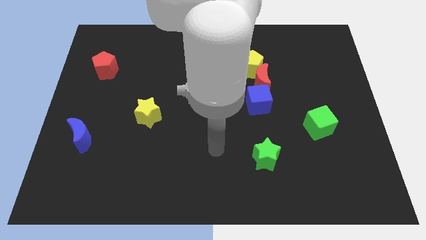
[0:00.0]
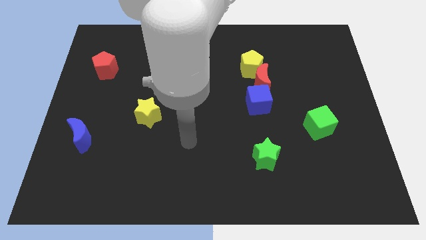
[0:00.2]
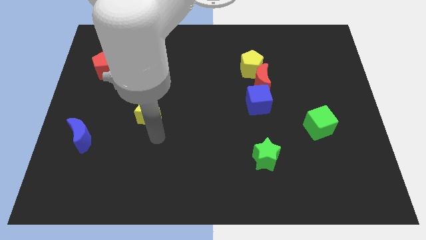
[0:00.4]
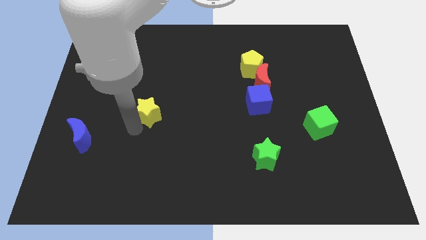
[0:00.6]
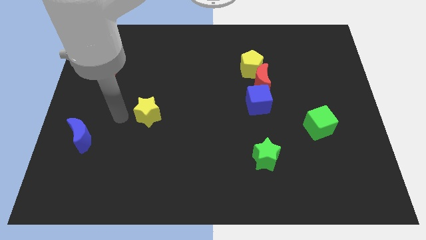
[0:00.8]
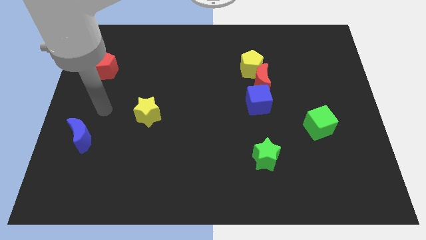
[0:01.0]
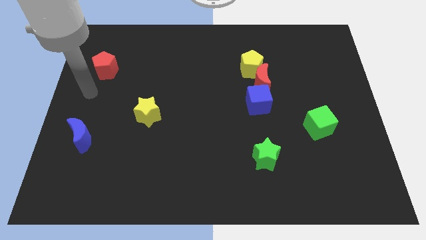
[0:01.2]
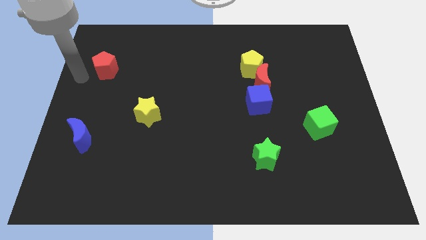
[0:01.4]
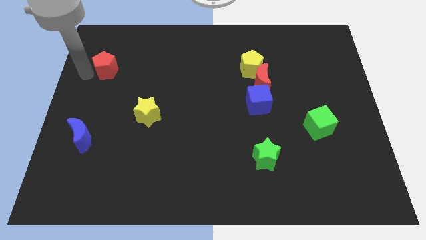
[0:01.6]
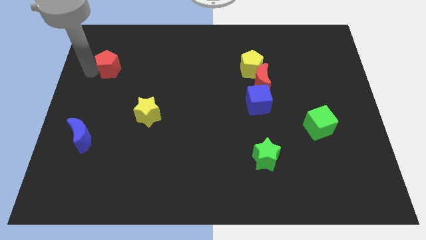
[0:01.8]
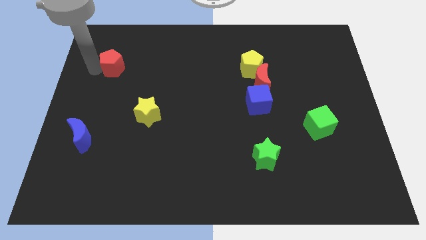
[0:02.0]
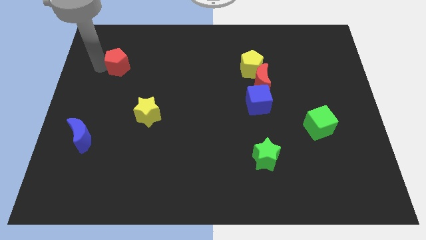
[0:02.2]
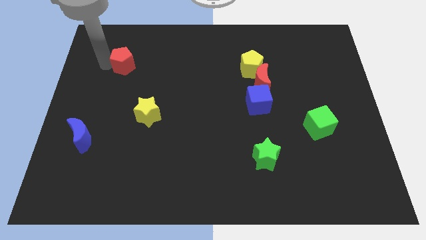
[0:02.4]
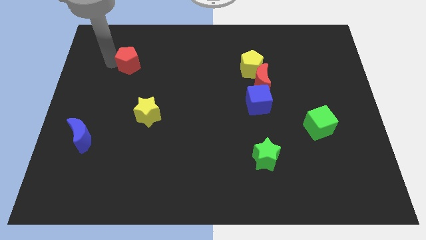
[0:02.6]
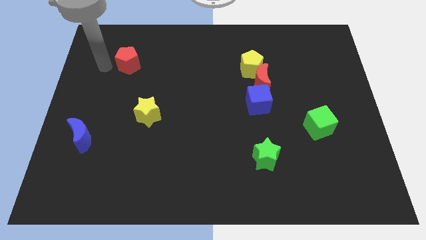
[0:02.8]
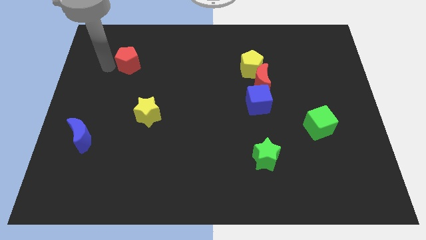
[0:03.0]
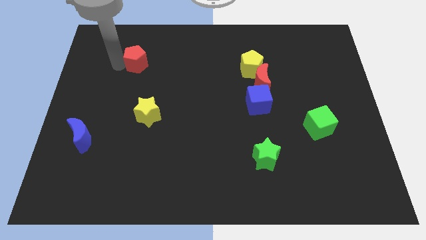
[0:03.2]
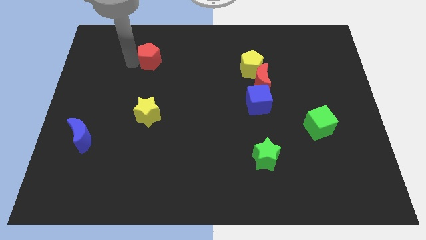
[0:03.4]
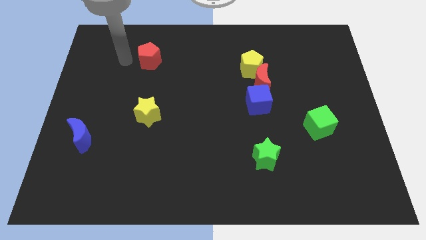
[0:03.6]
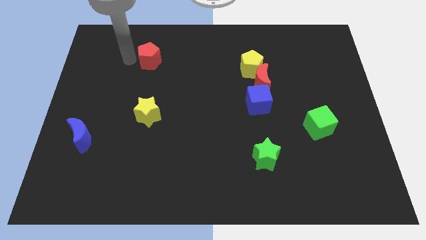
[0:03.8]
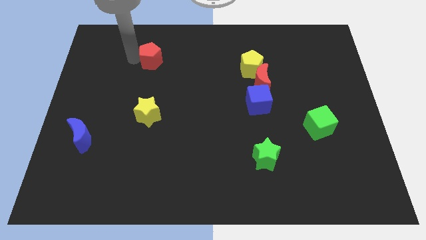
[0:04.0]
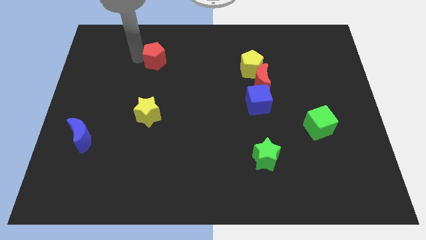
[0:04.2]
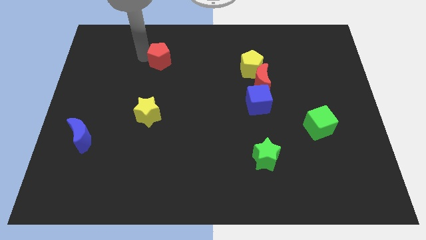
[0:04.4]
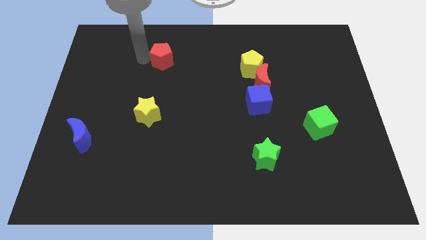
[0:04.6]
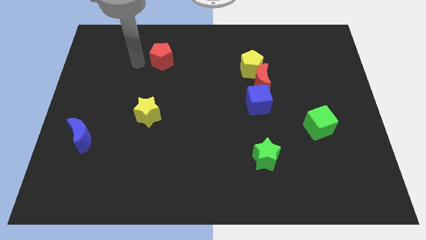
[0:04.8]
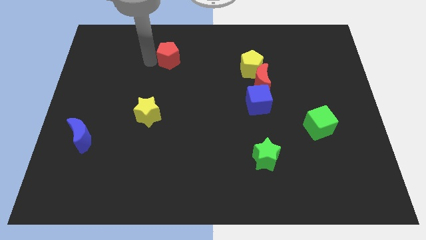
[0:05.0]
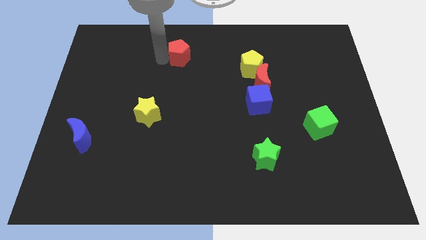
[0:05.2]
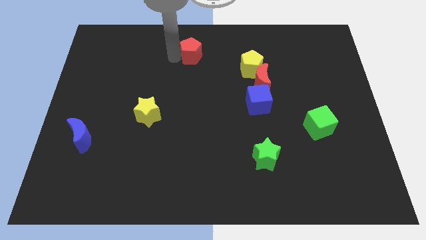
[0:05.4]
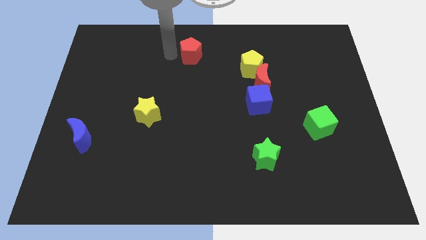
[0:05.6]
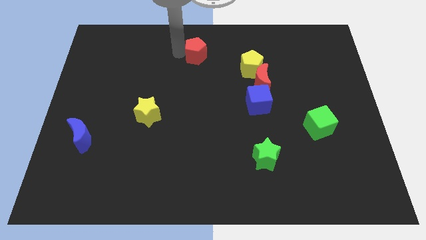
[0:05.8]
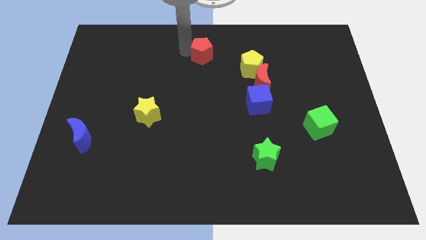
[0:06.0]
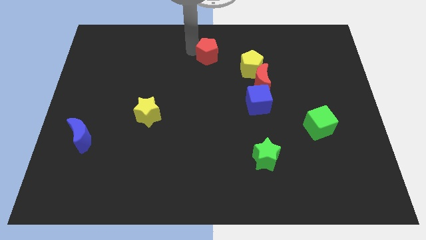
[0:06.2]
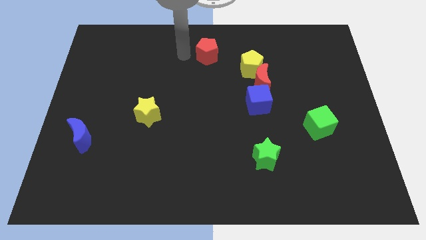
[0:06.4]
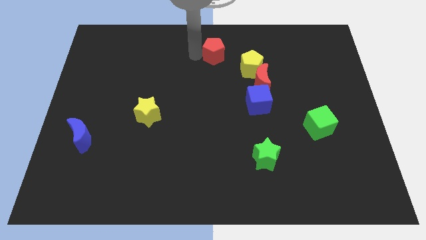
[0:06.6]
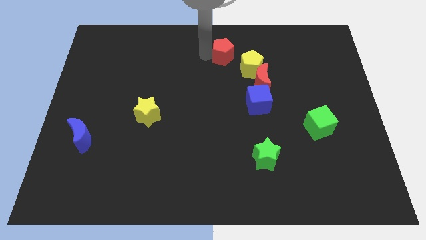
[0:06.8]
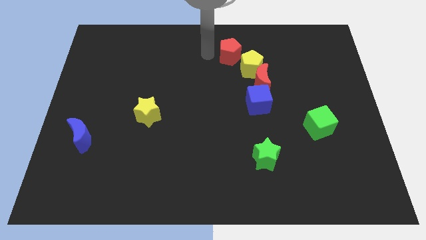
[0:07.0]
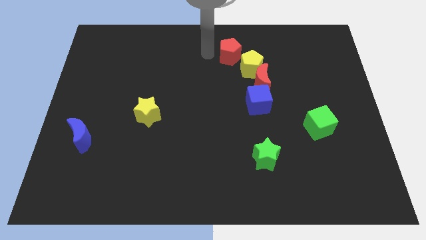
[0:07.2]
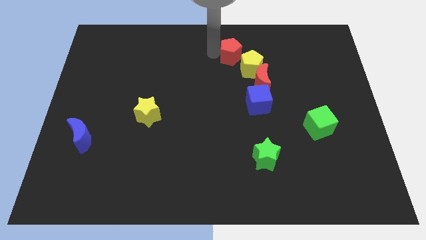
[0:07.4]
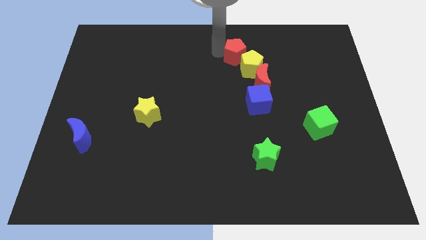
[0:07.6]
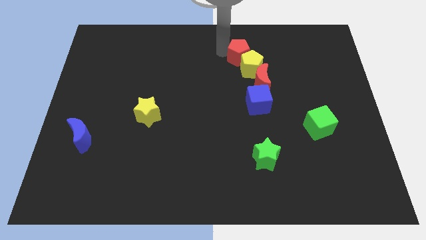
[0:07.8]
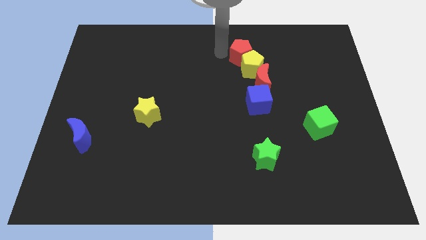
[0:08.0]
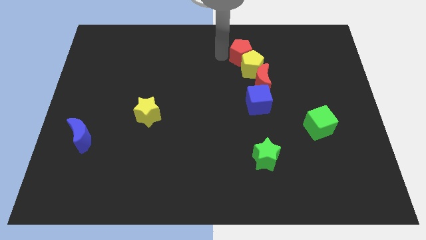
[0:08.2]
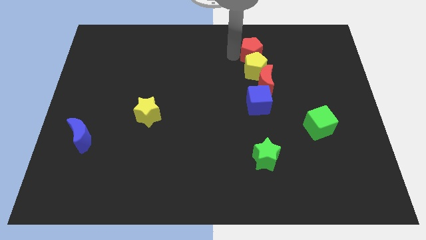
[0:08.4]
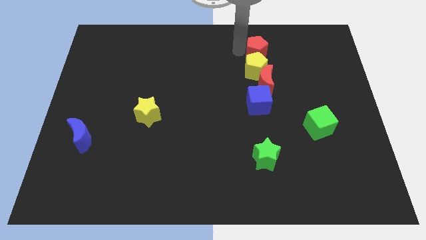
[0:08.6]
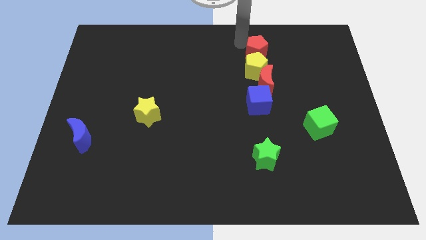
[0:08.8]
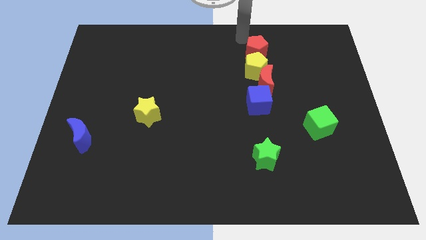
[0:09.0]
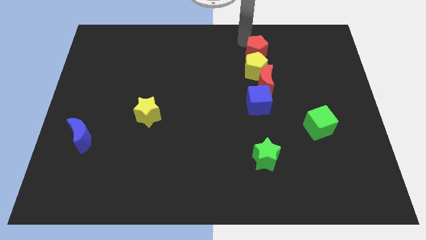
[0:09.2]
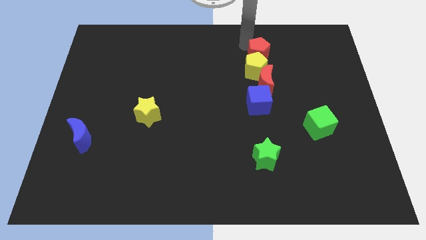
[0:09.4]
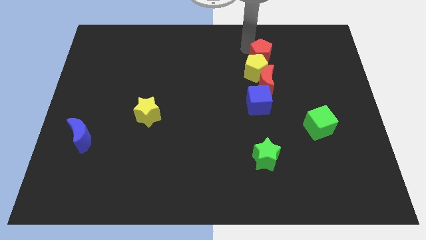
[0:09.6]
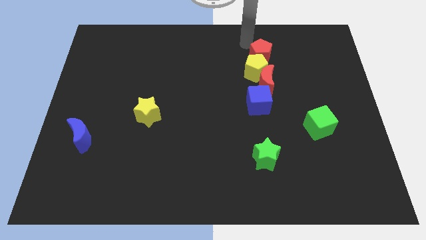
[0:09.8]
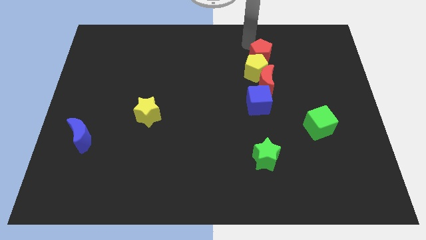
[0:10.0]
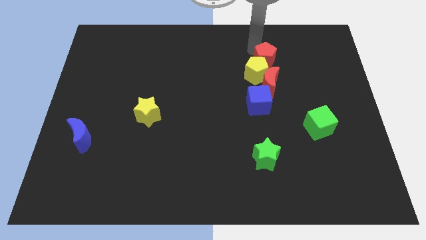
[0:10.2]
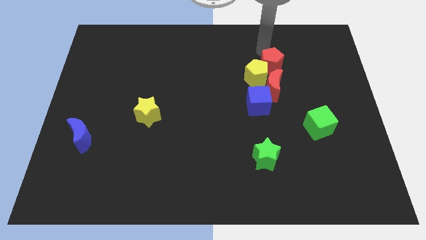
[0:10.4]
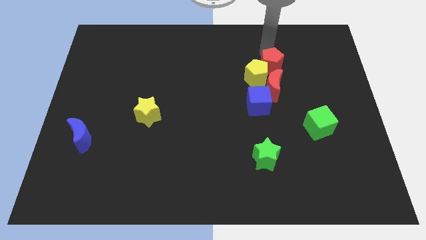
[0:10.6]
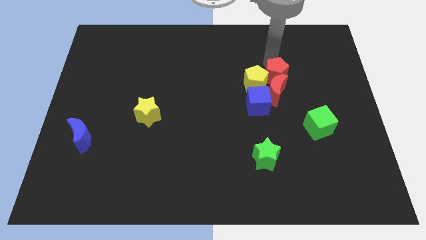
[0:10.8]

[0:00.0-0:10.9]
push the red pentagon diagonally up and to the right of the blue cube

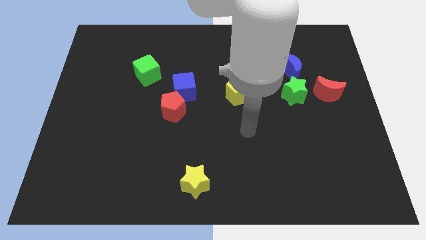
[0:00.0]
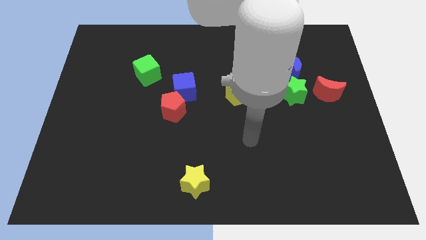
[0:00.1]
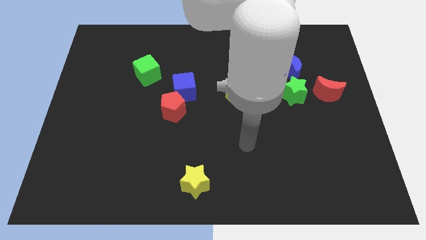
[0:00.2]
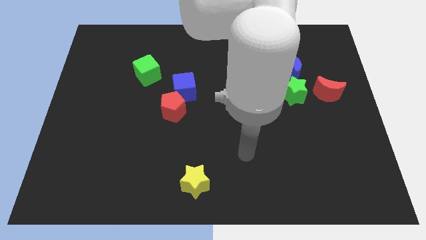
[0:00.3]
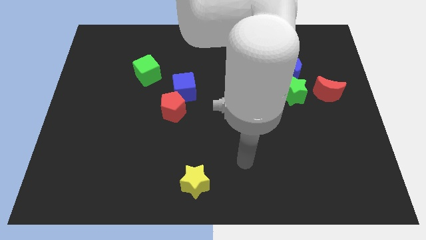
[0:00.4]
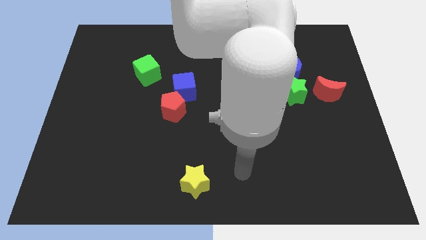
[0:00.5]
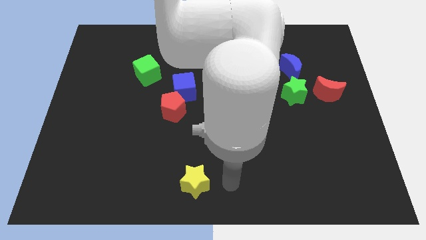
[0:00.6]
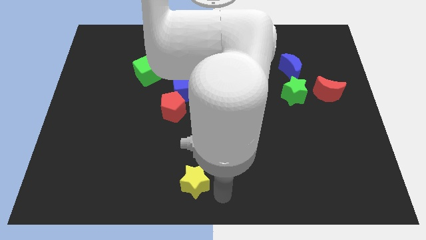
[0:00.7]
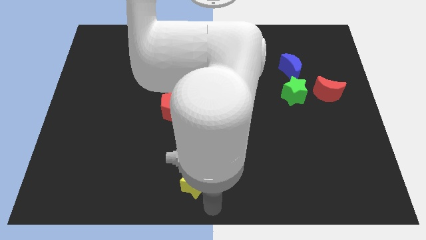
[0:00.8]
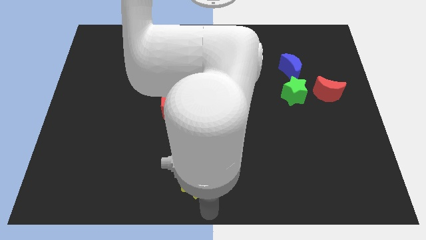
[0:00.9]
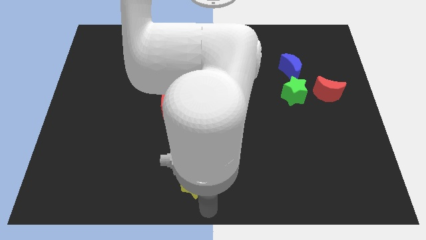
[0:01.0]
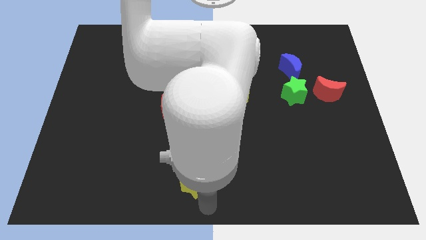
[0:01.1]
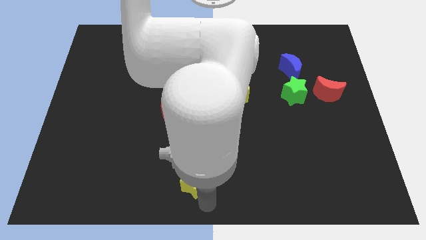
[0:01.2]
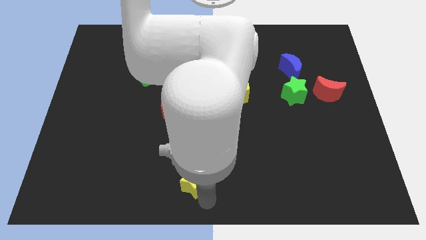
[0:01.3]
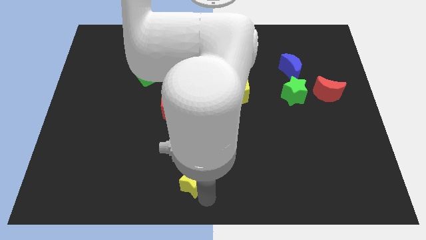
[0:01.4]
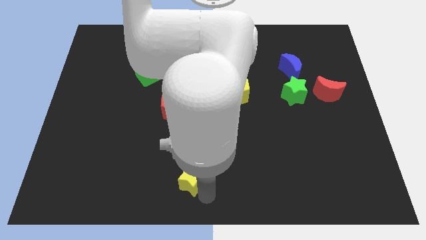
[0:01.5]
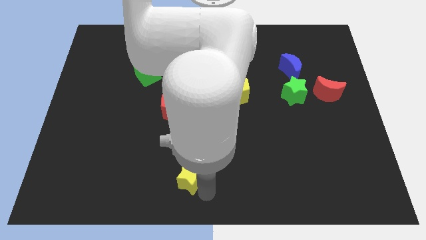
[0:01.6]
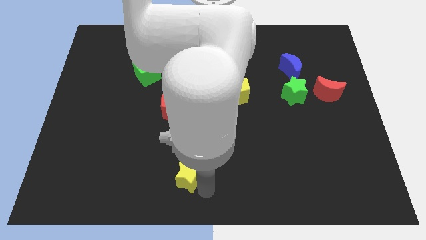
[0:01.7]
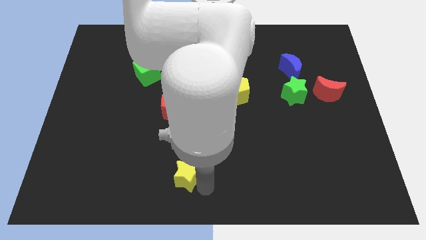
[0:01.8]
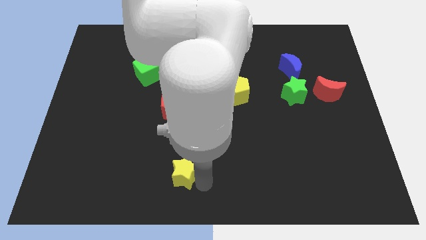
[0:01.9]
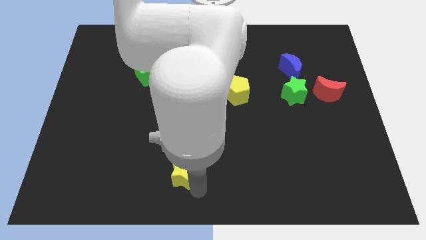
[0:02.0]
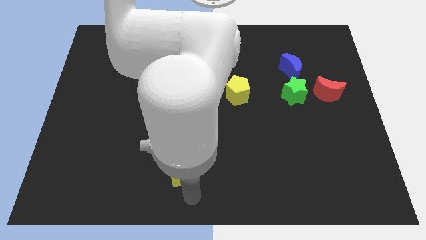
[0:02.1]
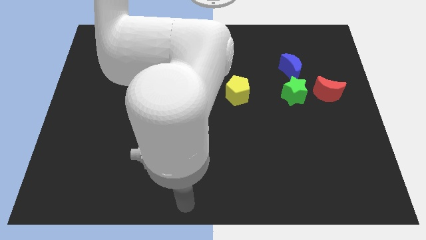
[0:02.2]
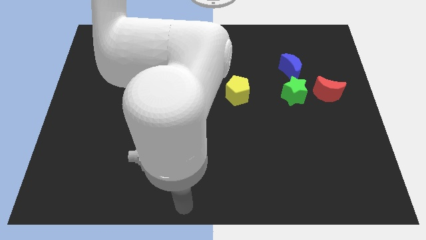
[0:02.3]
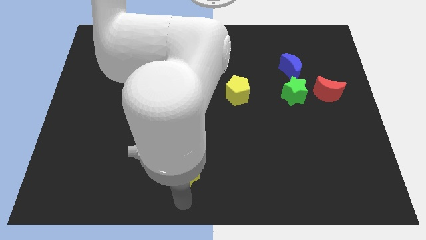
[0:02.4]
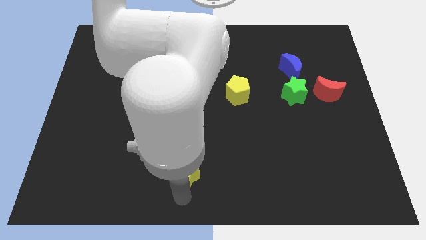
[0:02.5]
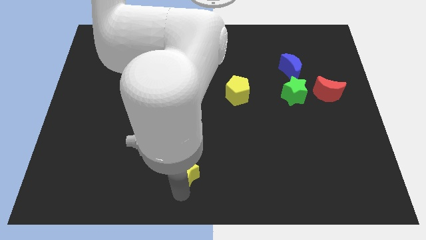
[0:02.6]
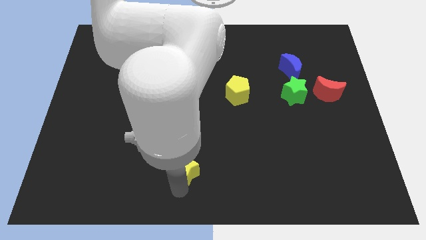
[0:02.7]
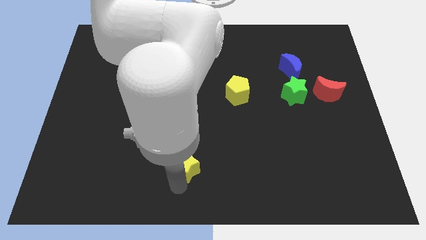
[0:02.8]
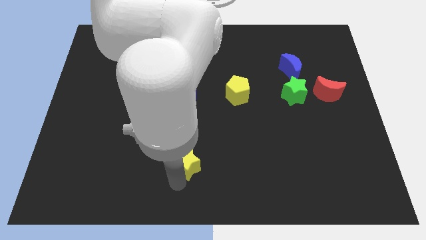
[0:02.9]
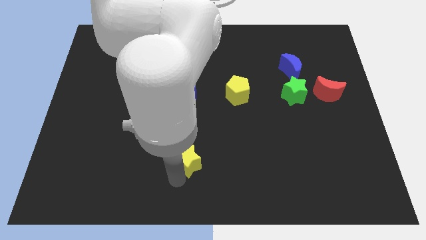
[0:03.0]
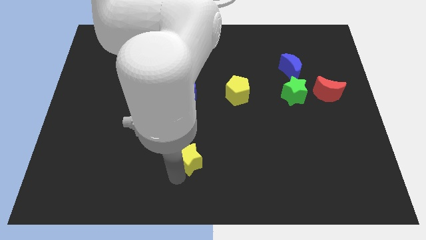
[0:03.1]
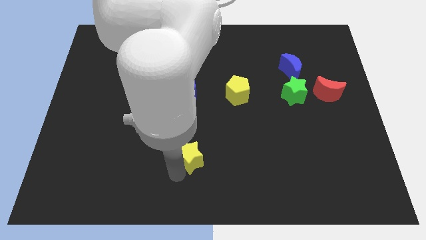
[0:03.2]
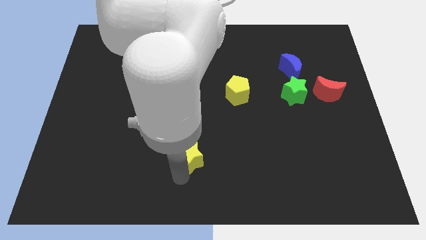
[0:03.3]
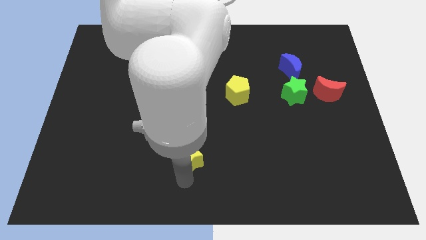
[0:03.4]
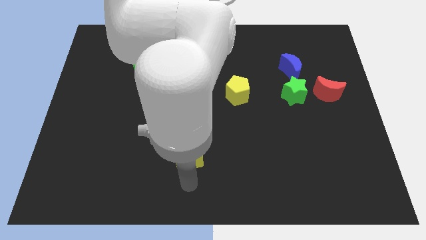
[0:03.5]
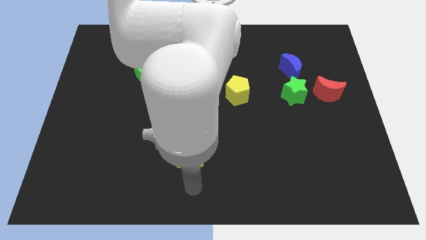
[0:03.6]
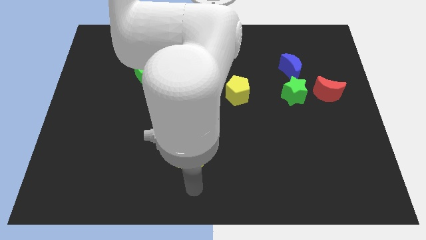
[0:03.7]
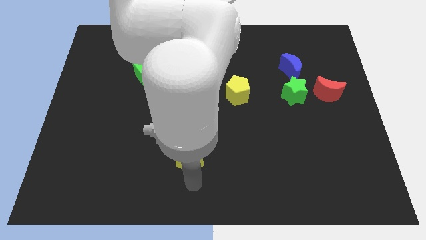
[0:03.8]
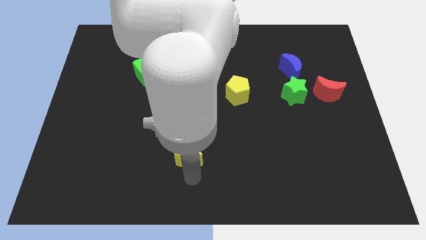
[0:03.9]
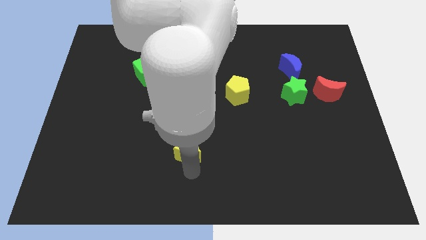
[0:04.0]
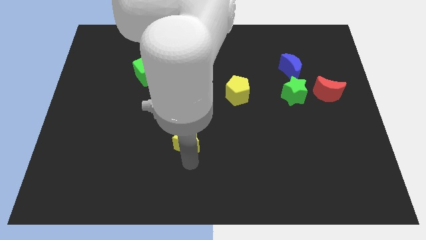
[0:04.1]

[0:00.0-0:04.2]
put the yellow star below the blue cube
